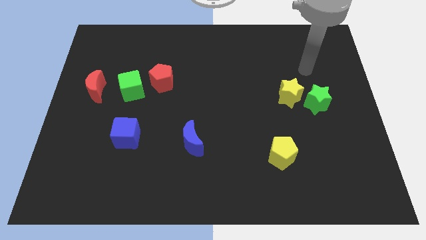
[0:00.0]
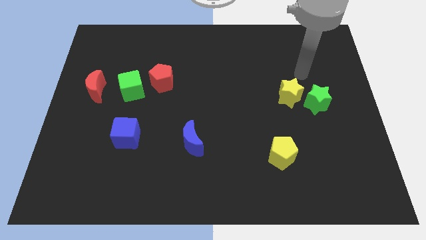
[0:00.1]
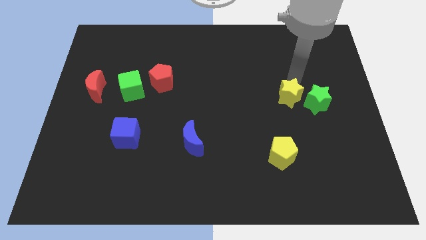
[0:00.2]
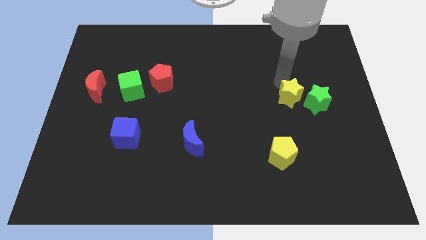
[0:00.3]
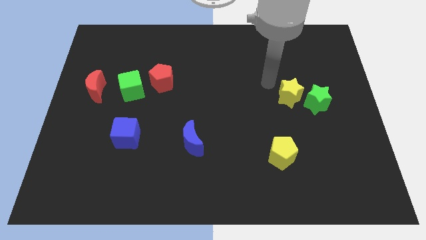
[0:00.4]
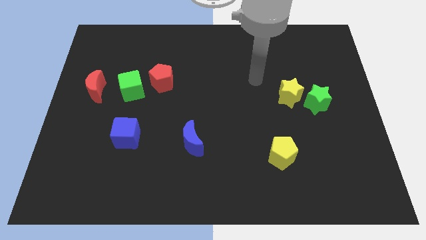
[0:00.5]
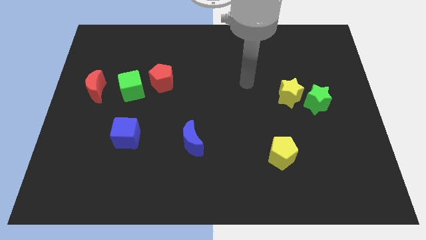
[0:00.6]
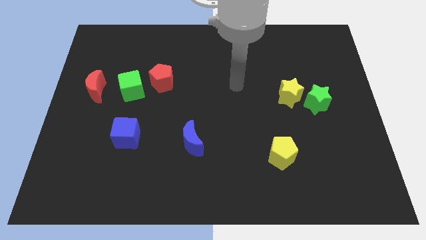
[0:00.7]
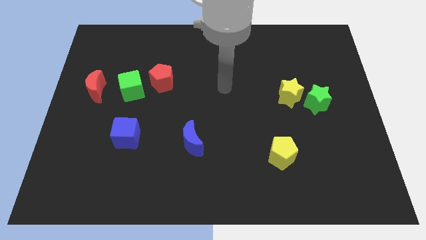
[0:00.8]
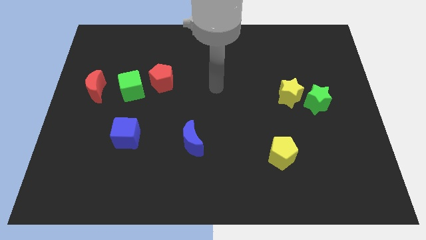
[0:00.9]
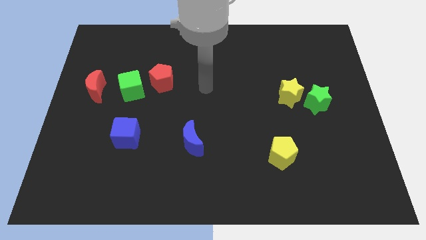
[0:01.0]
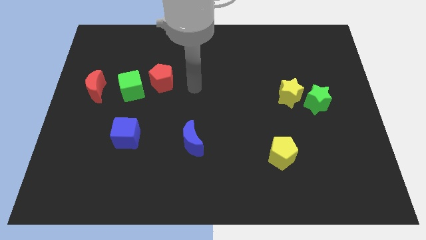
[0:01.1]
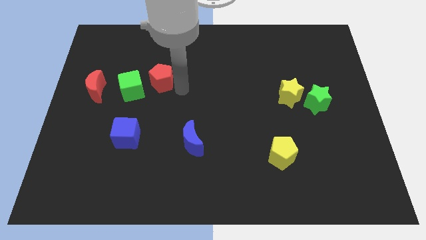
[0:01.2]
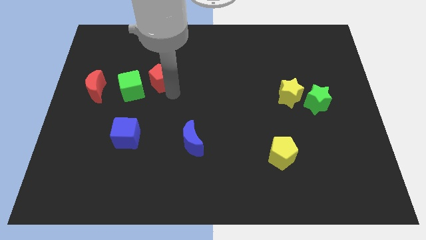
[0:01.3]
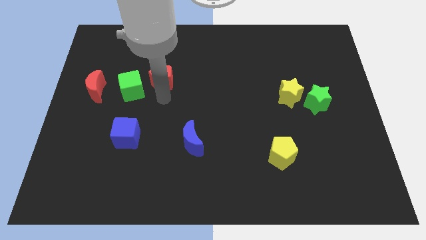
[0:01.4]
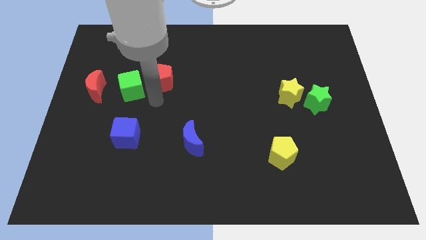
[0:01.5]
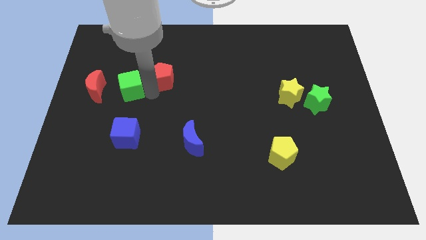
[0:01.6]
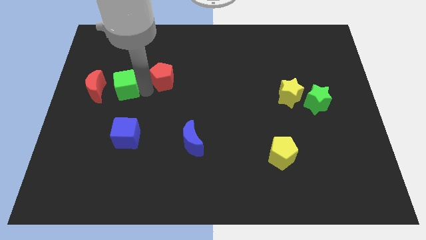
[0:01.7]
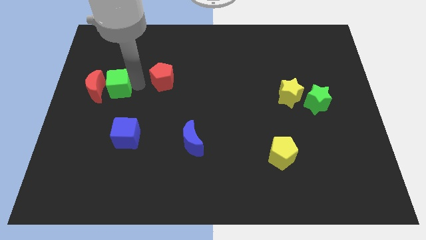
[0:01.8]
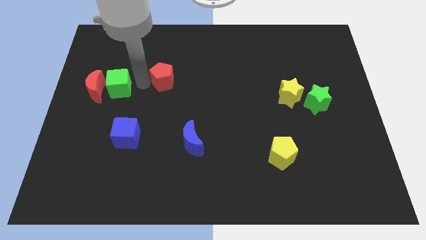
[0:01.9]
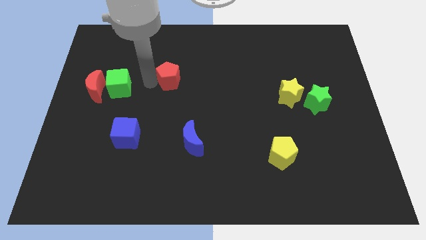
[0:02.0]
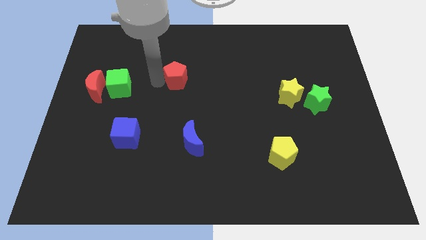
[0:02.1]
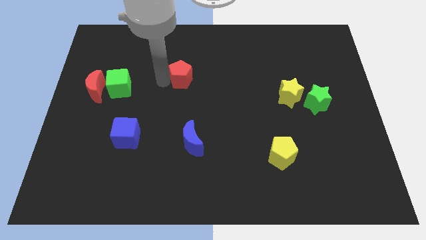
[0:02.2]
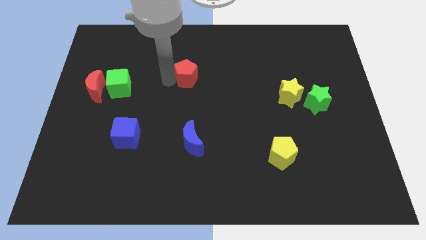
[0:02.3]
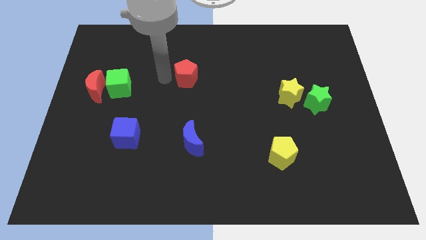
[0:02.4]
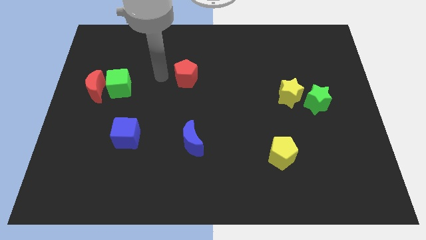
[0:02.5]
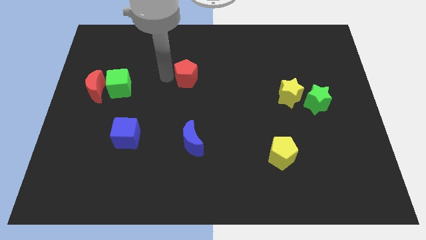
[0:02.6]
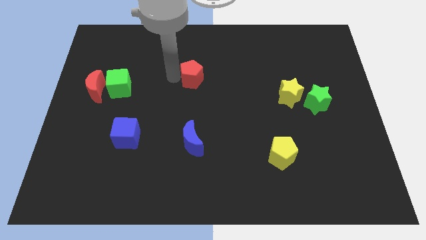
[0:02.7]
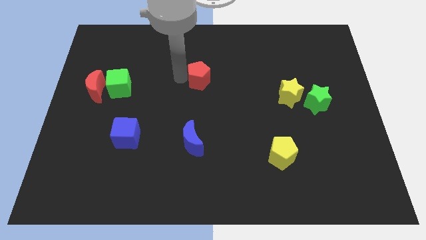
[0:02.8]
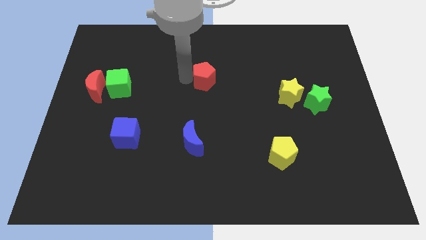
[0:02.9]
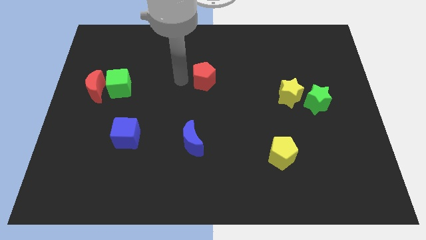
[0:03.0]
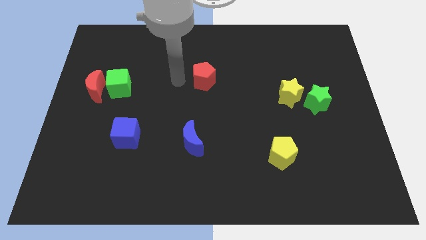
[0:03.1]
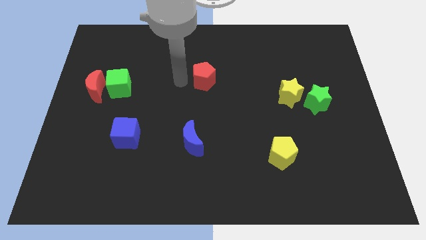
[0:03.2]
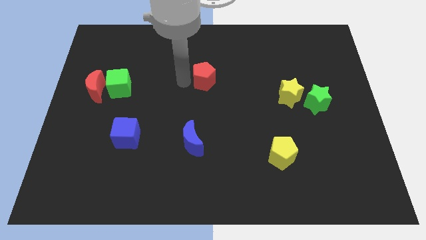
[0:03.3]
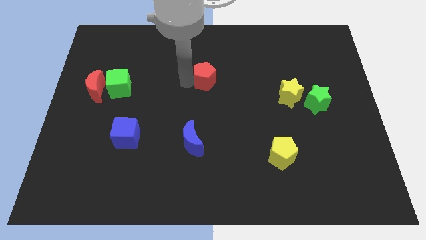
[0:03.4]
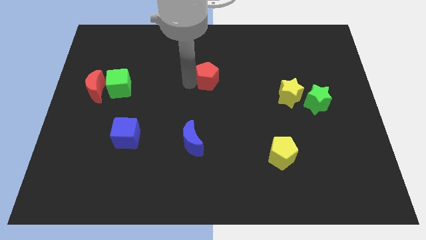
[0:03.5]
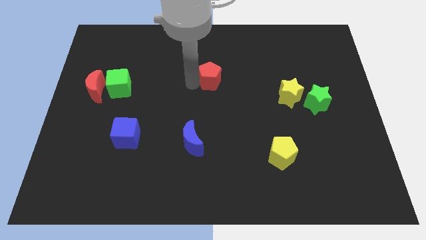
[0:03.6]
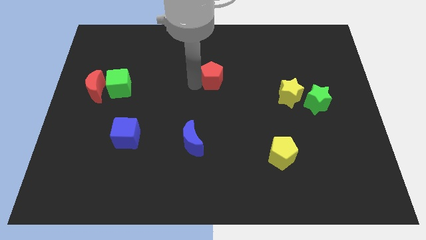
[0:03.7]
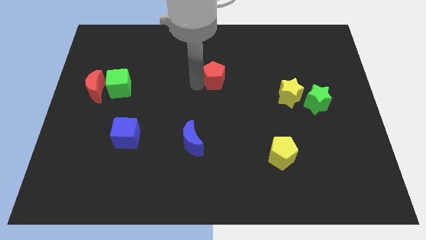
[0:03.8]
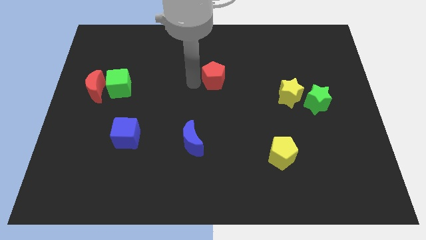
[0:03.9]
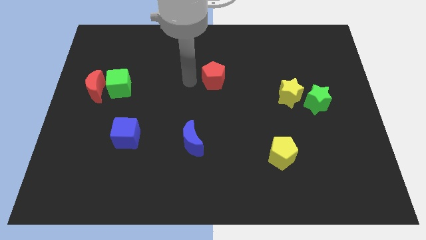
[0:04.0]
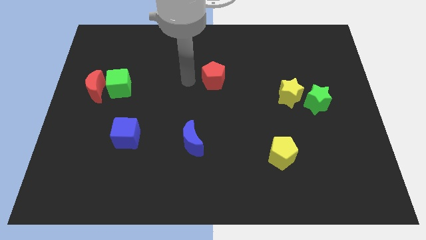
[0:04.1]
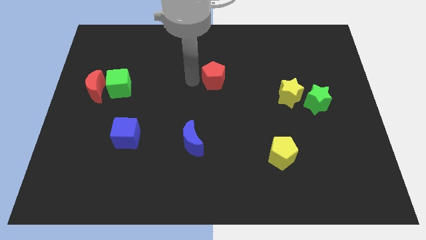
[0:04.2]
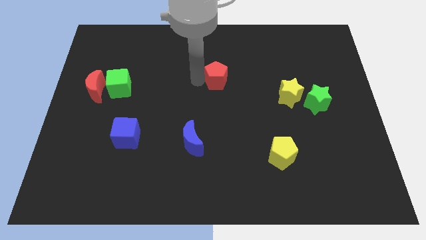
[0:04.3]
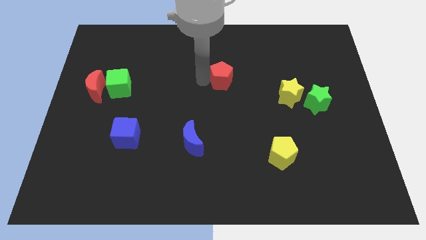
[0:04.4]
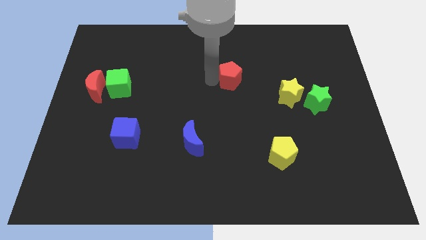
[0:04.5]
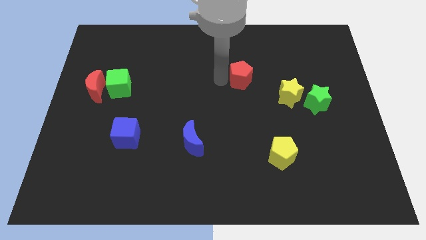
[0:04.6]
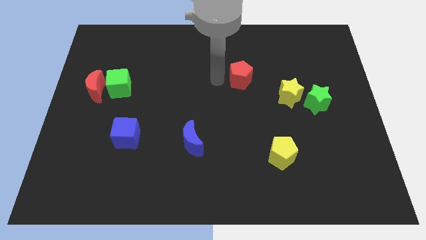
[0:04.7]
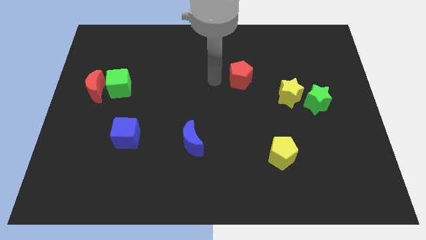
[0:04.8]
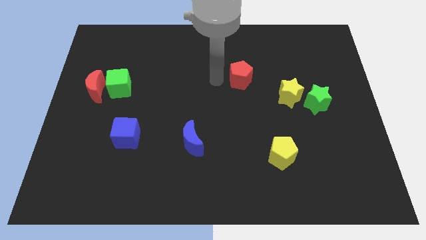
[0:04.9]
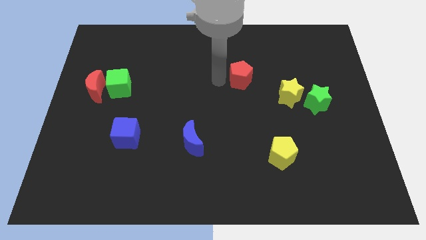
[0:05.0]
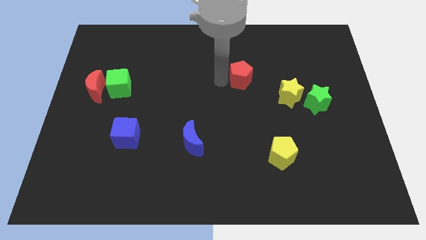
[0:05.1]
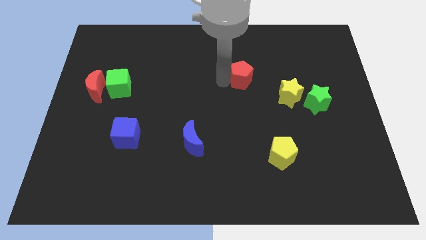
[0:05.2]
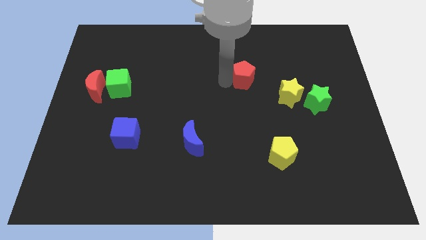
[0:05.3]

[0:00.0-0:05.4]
slide the red pentagon to the right
